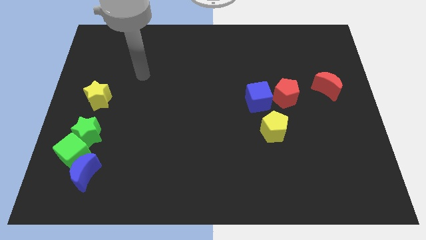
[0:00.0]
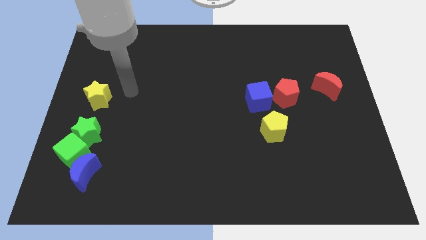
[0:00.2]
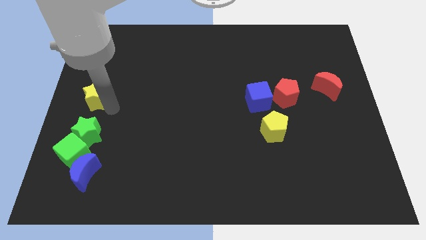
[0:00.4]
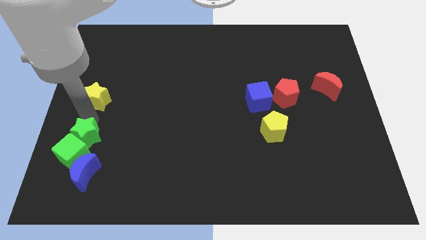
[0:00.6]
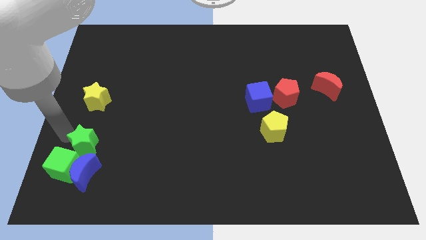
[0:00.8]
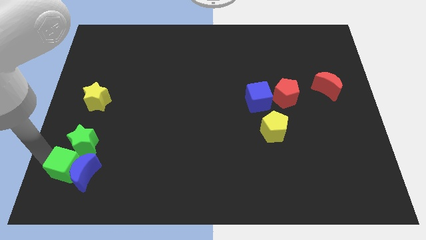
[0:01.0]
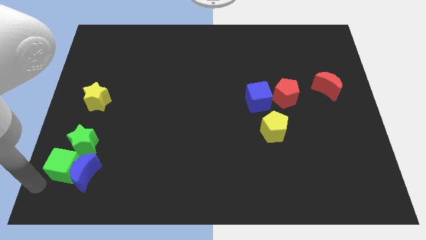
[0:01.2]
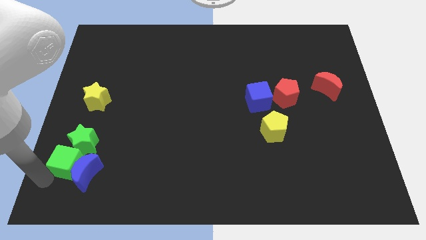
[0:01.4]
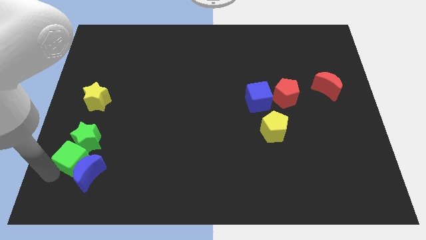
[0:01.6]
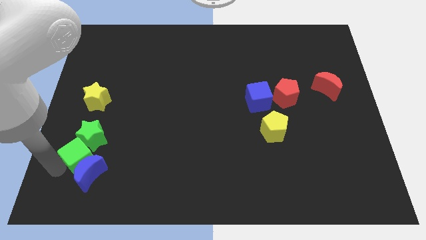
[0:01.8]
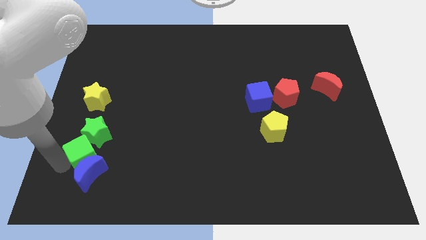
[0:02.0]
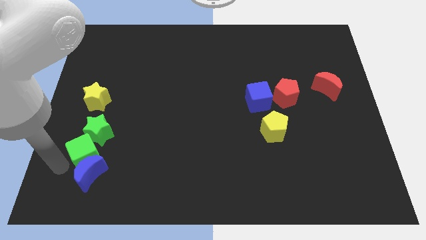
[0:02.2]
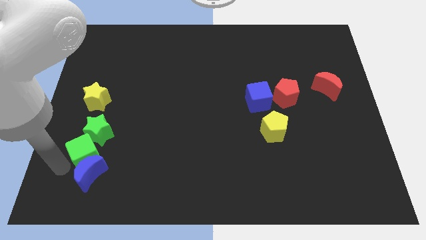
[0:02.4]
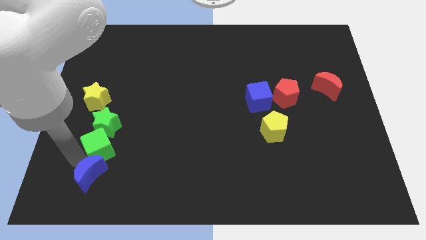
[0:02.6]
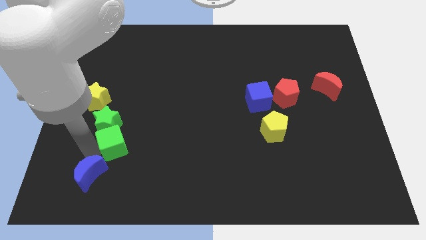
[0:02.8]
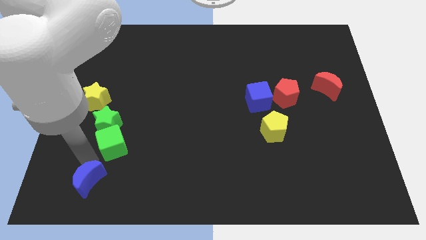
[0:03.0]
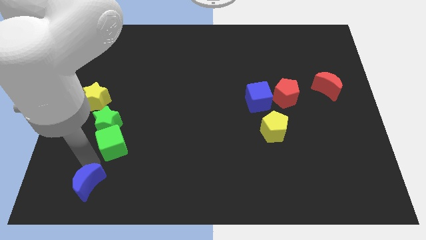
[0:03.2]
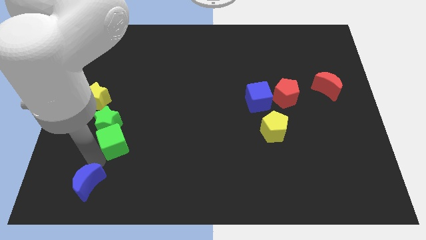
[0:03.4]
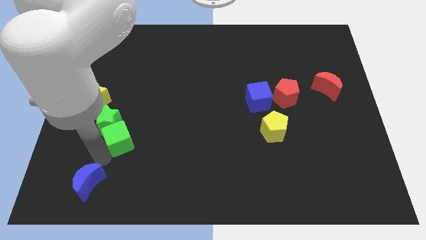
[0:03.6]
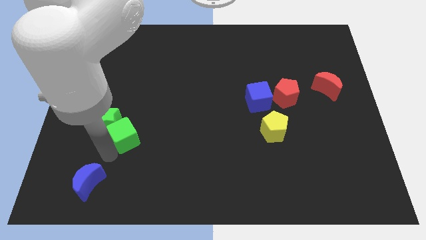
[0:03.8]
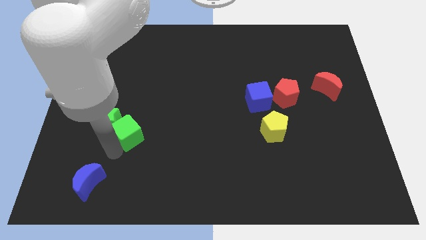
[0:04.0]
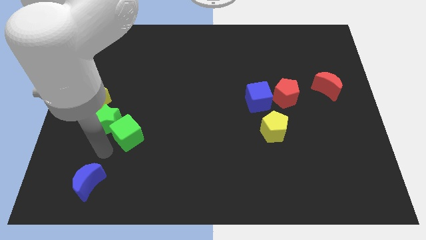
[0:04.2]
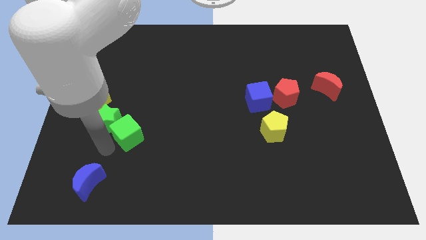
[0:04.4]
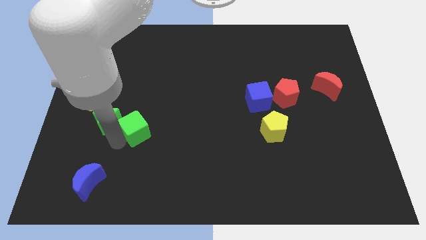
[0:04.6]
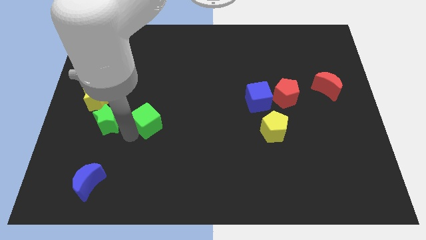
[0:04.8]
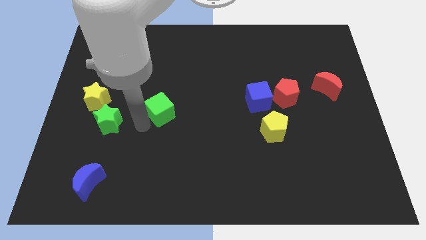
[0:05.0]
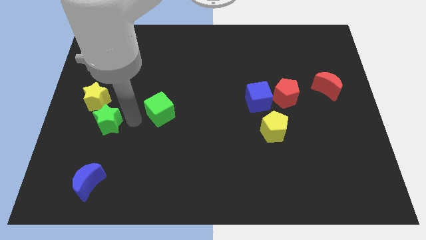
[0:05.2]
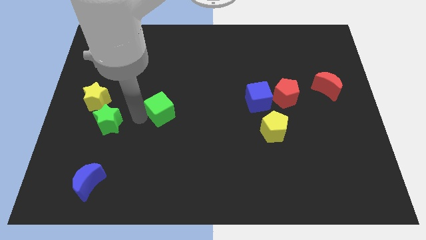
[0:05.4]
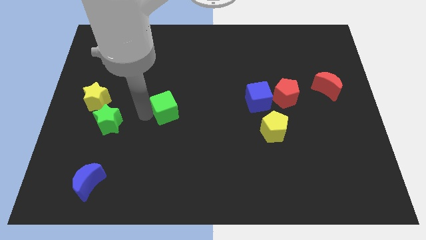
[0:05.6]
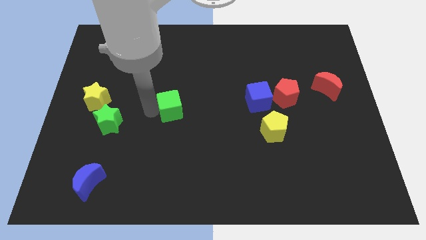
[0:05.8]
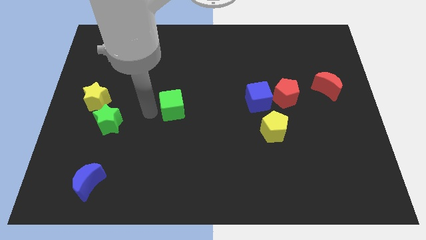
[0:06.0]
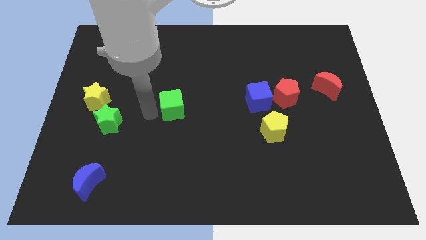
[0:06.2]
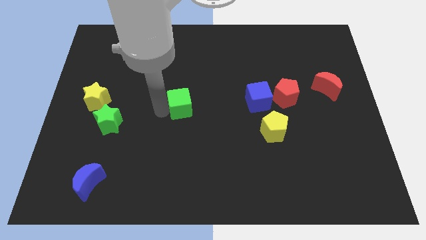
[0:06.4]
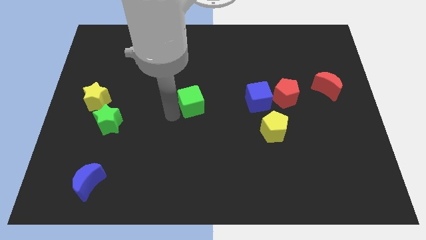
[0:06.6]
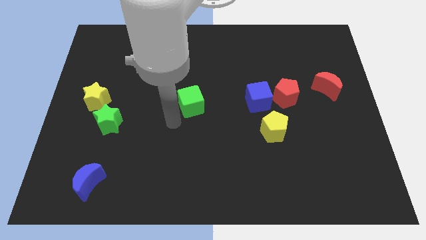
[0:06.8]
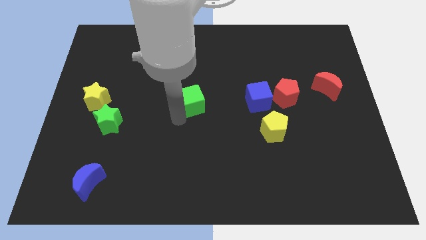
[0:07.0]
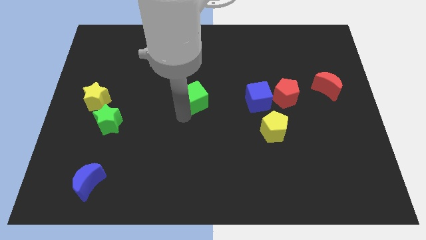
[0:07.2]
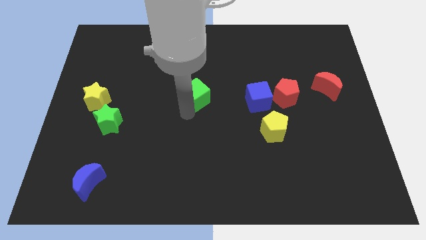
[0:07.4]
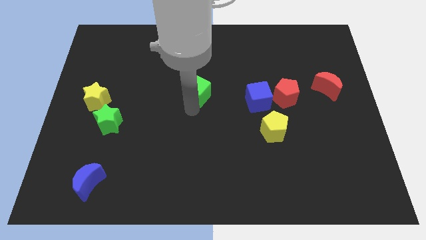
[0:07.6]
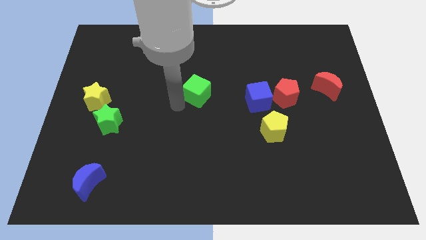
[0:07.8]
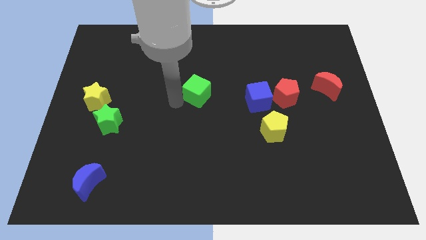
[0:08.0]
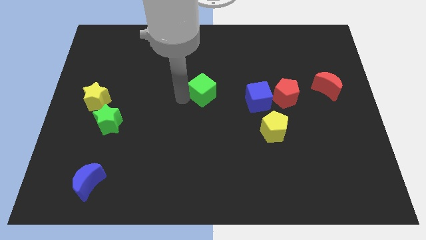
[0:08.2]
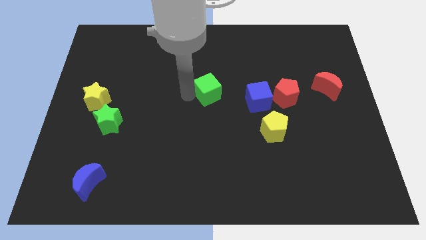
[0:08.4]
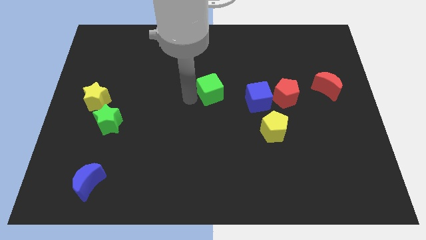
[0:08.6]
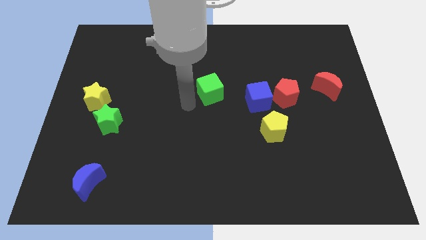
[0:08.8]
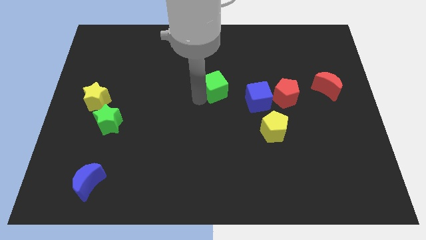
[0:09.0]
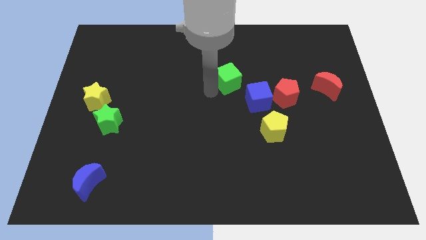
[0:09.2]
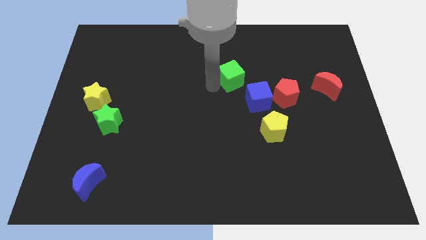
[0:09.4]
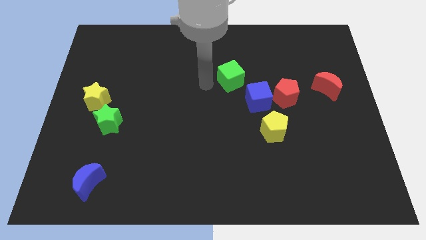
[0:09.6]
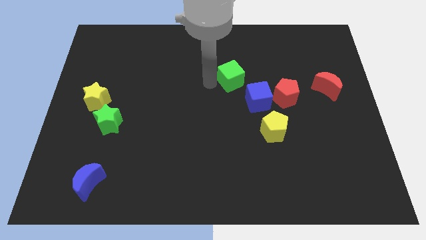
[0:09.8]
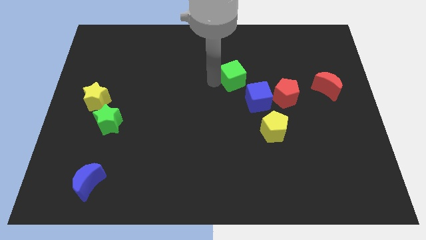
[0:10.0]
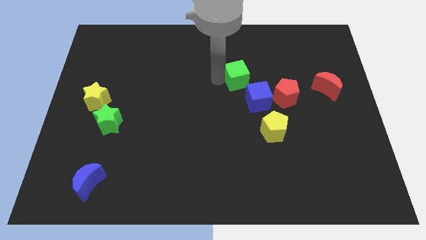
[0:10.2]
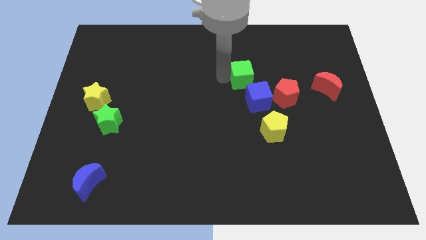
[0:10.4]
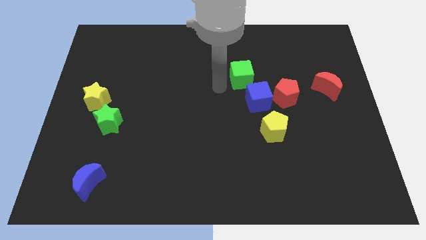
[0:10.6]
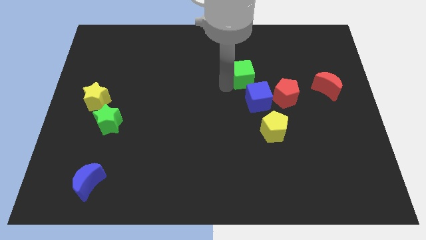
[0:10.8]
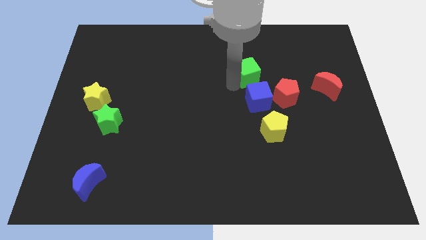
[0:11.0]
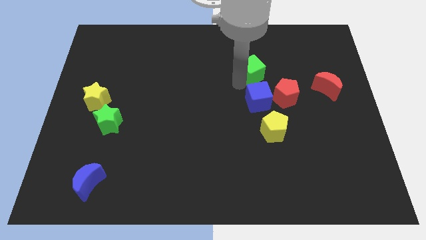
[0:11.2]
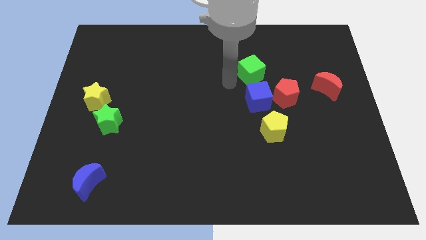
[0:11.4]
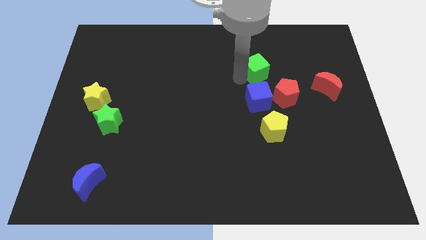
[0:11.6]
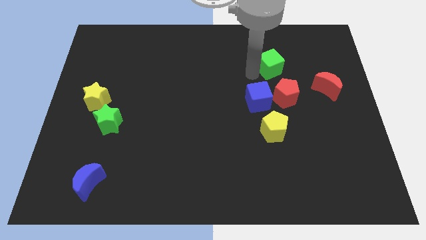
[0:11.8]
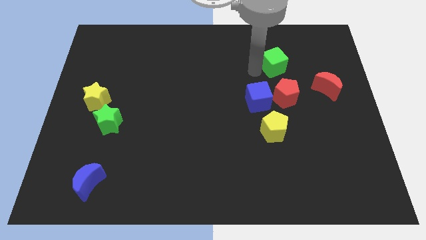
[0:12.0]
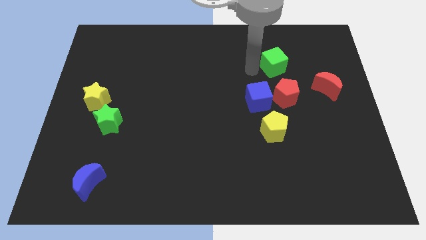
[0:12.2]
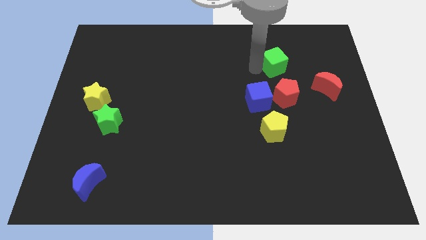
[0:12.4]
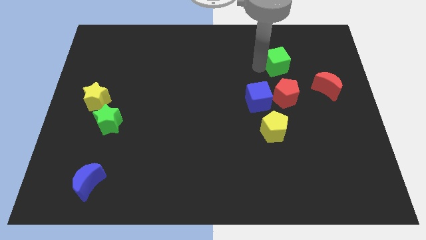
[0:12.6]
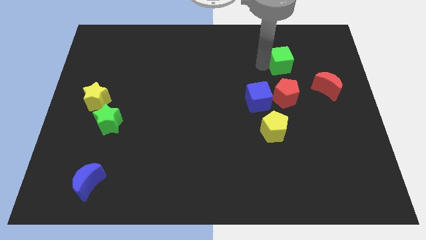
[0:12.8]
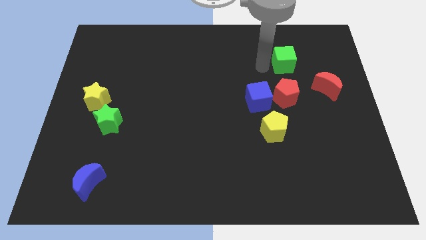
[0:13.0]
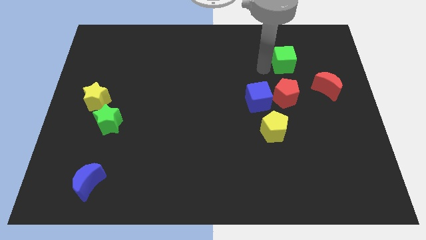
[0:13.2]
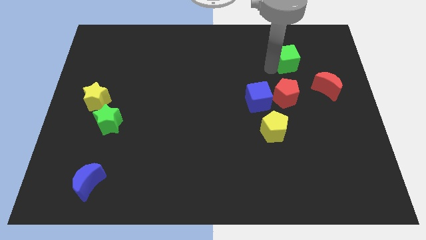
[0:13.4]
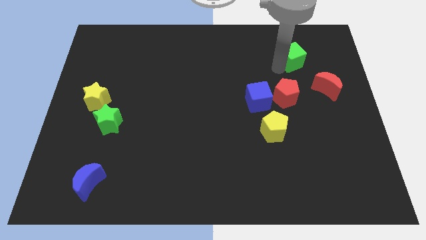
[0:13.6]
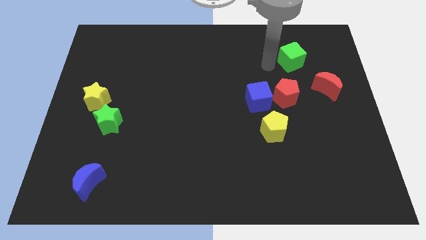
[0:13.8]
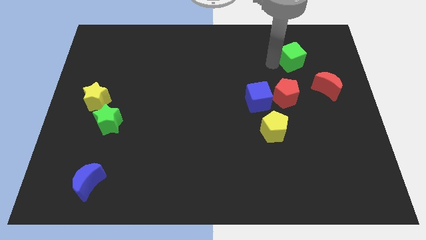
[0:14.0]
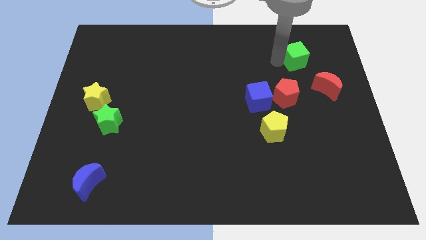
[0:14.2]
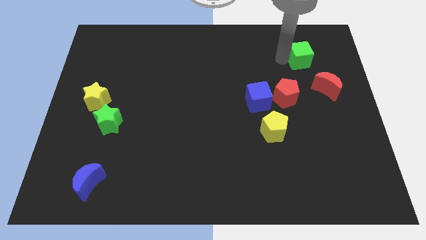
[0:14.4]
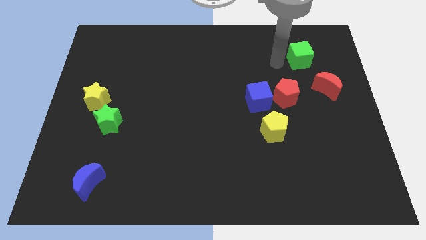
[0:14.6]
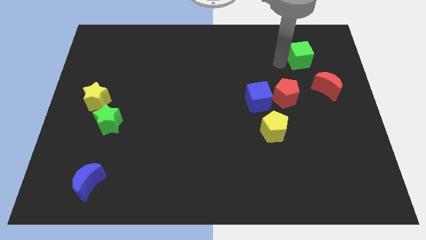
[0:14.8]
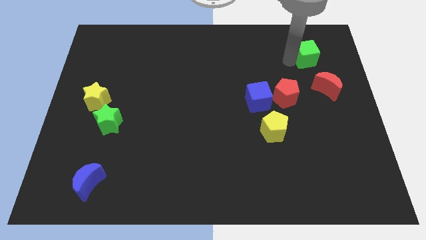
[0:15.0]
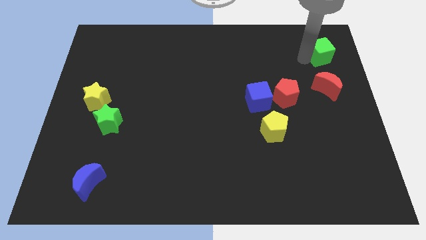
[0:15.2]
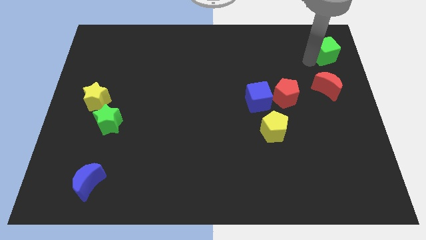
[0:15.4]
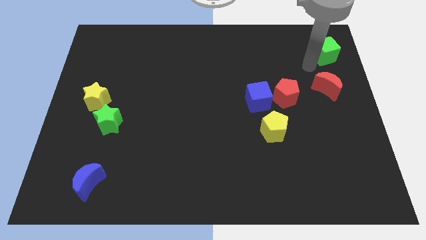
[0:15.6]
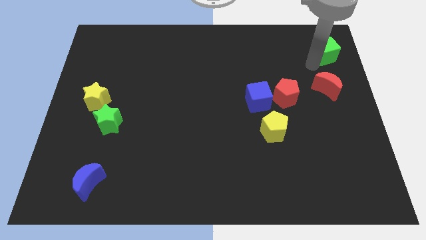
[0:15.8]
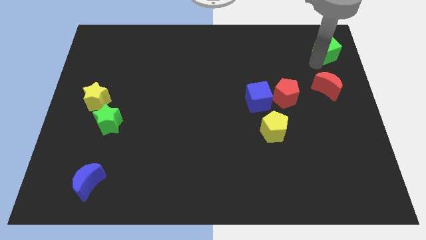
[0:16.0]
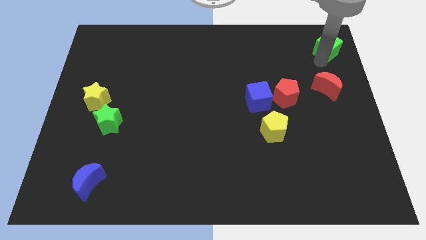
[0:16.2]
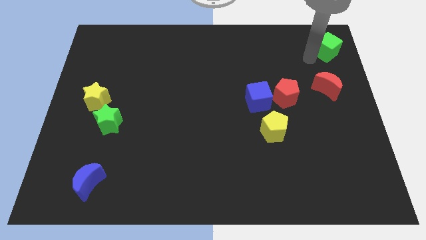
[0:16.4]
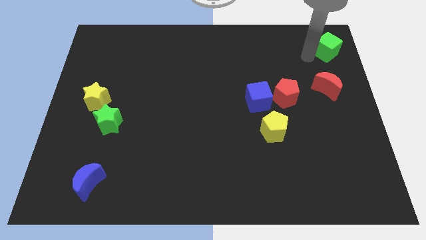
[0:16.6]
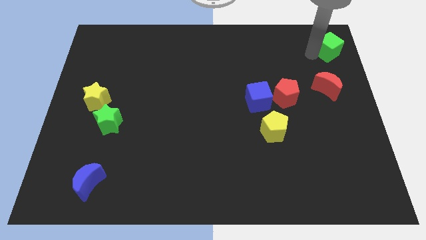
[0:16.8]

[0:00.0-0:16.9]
put the green cube to the top right of the board
